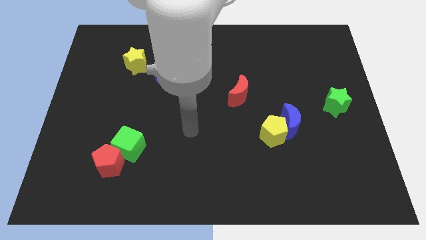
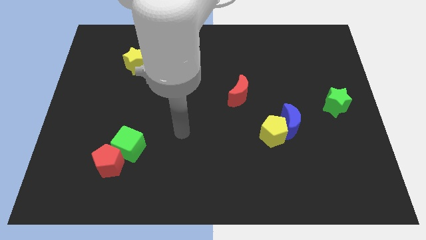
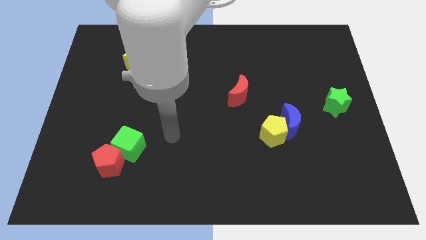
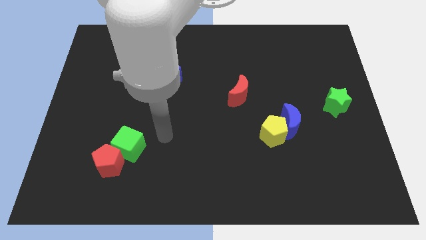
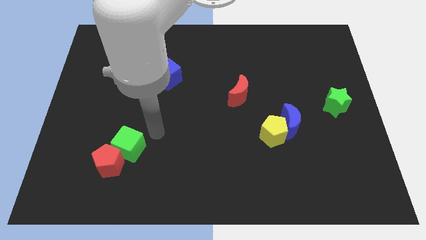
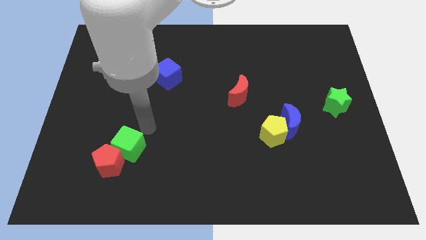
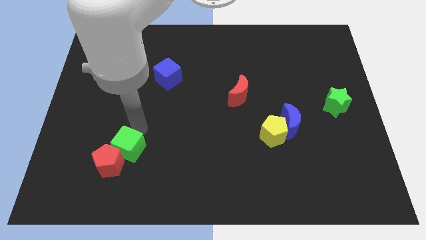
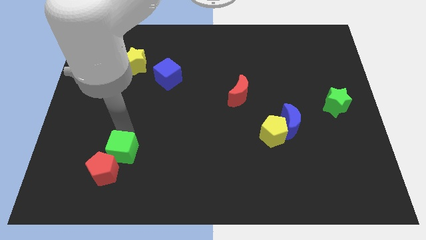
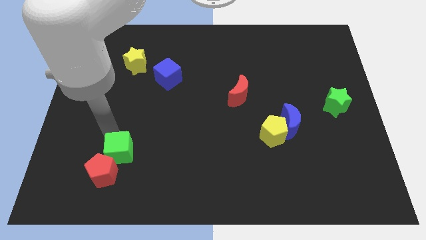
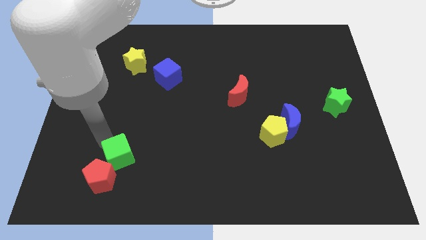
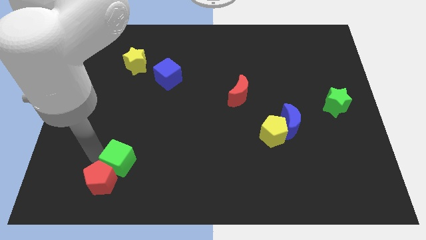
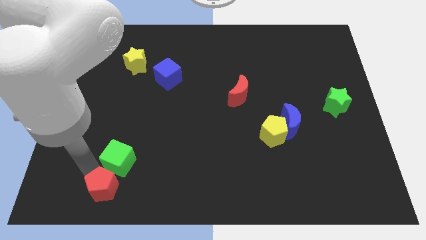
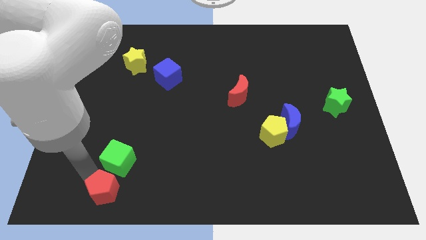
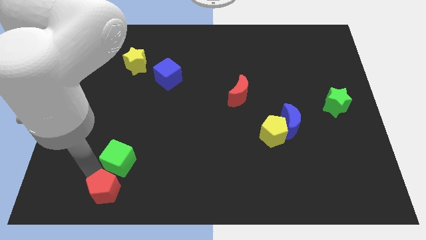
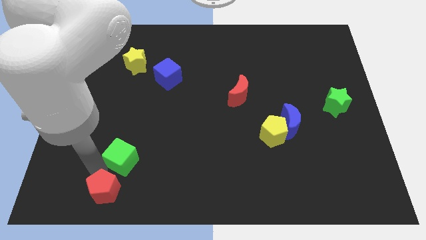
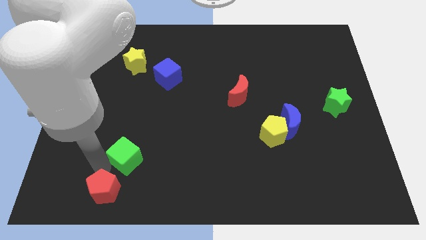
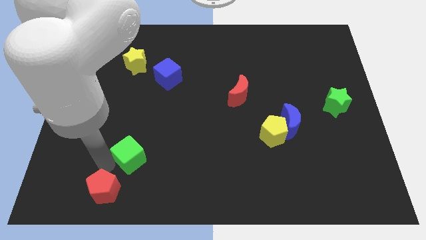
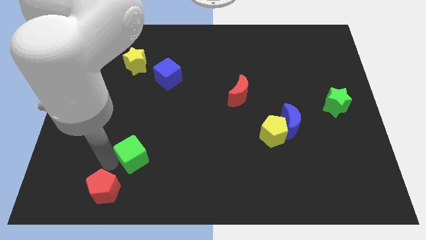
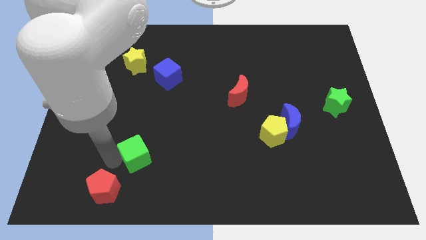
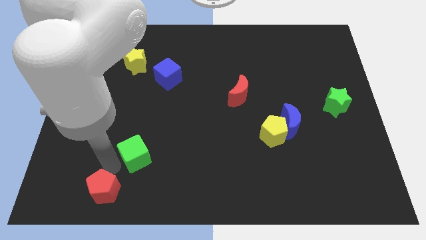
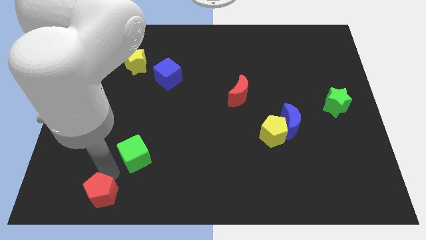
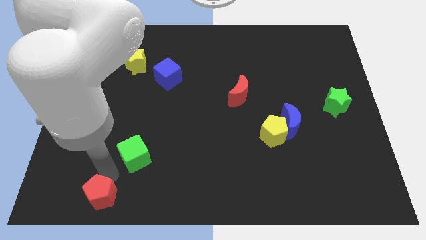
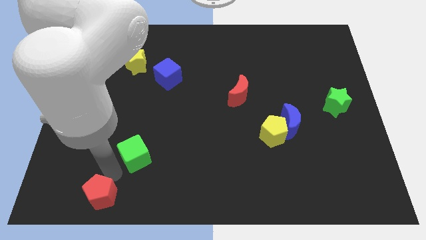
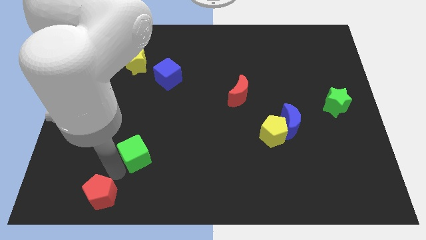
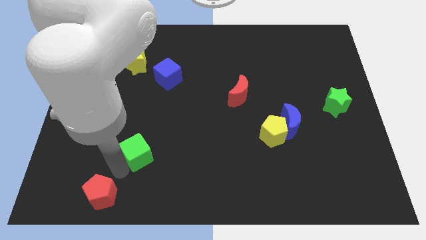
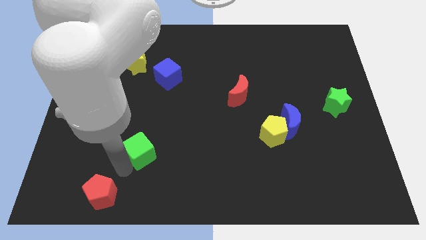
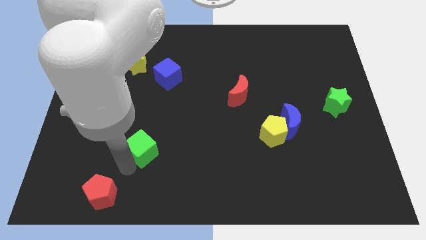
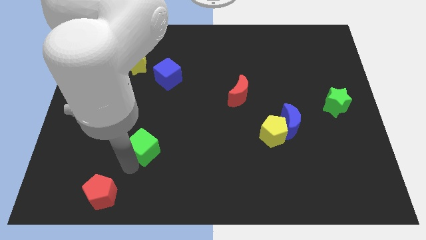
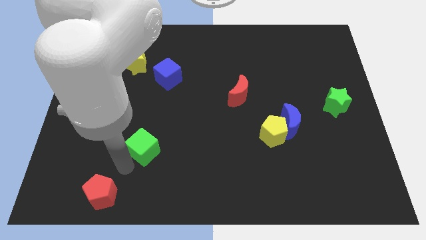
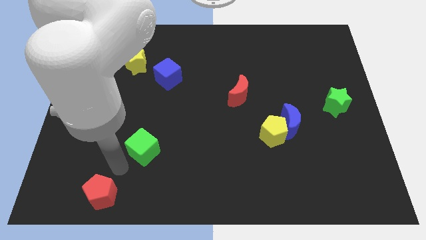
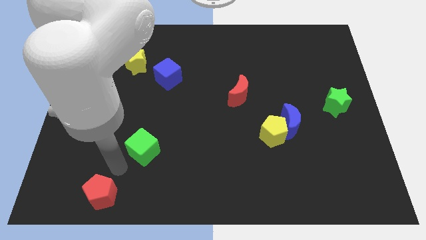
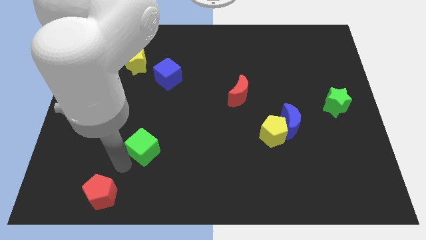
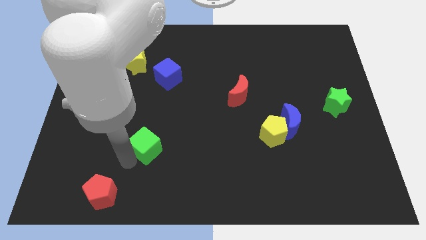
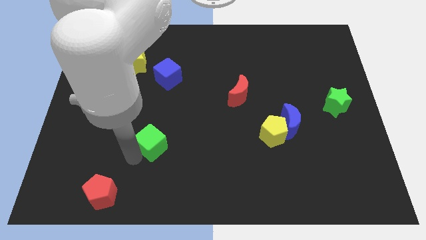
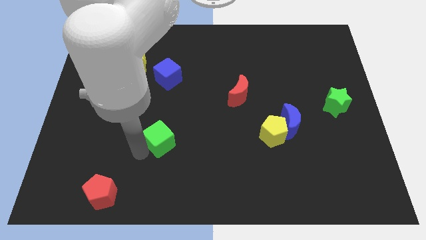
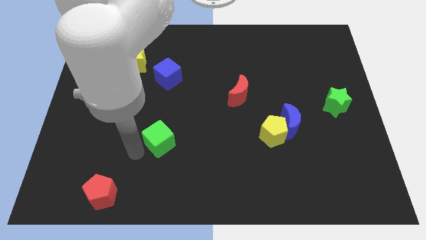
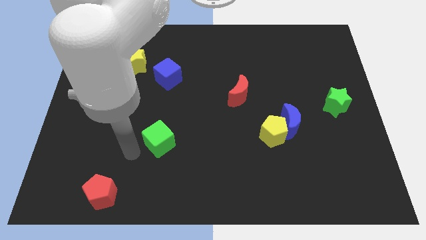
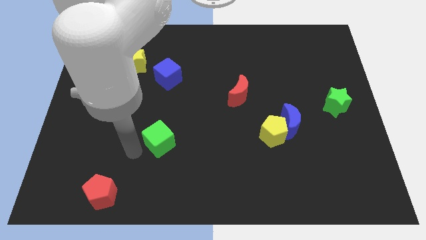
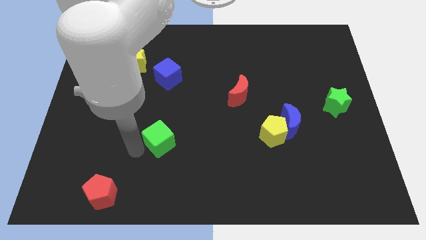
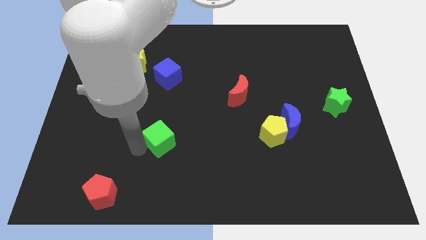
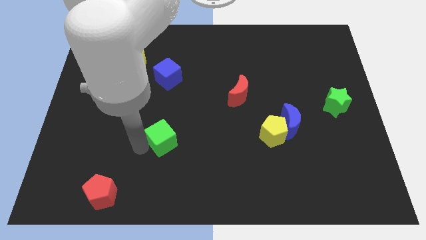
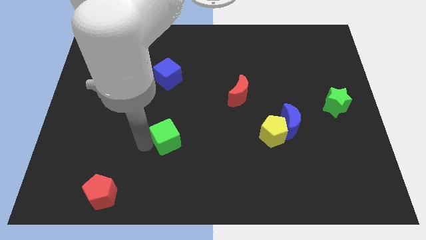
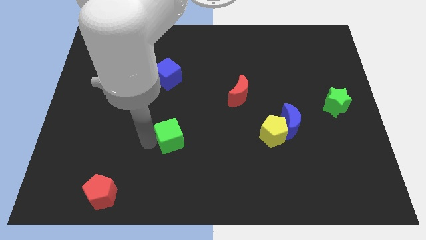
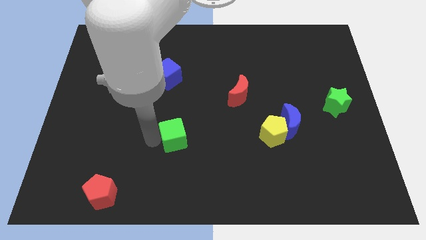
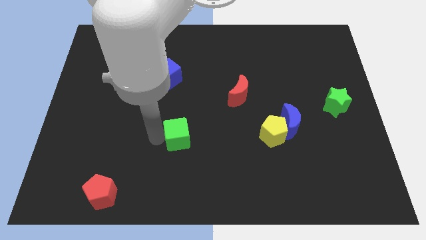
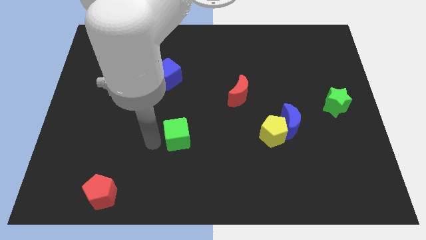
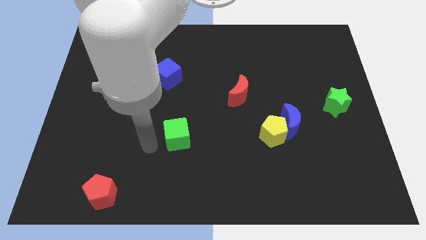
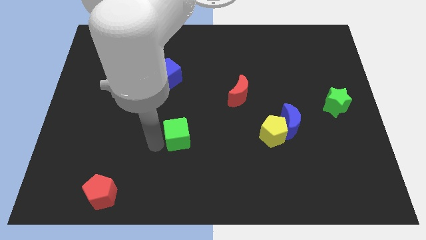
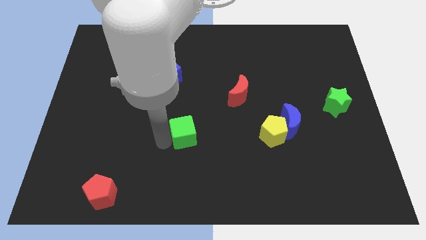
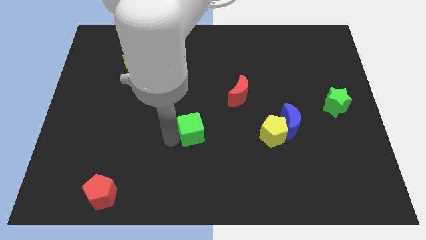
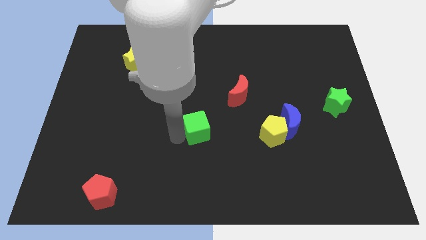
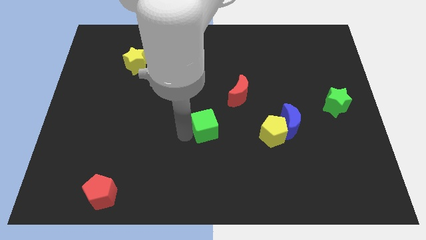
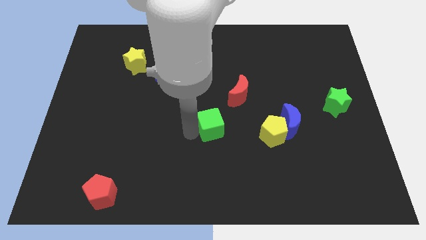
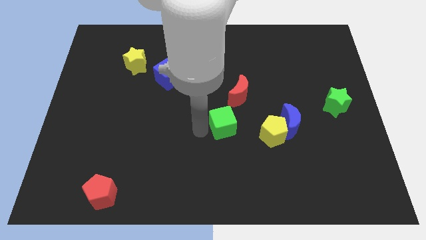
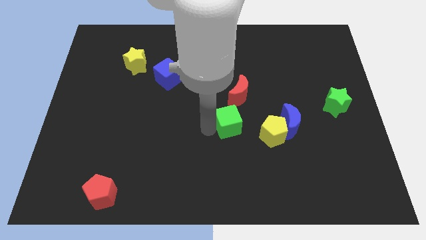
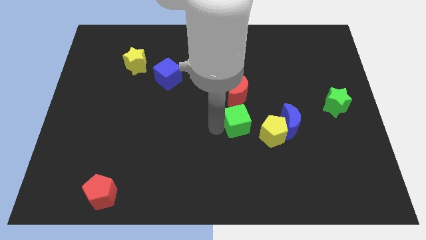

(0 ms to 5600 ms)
put the green cube to the top left of the yellow pentagon

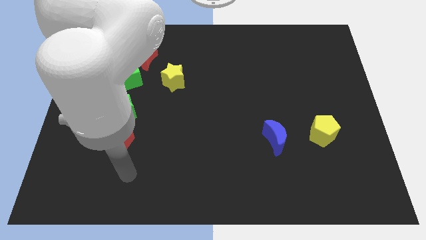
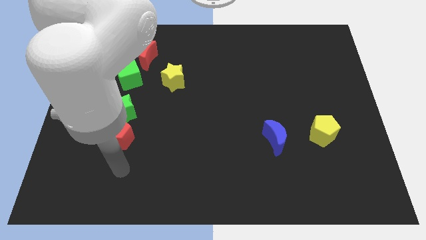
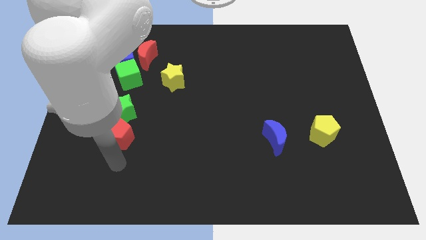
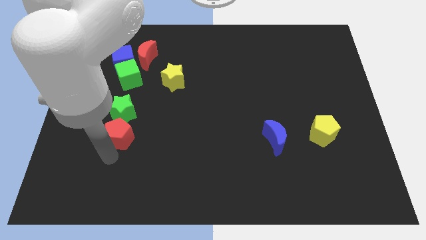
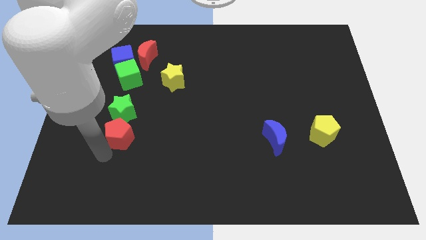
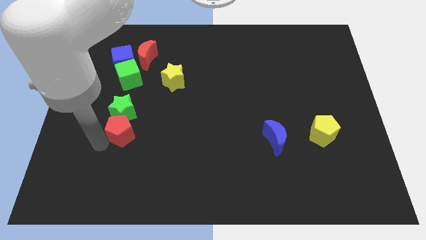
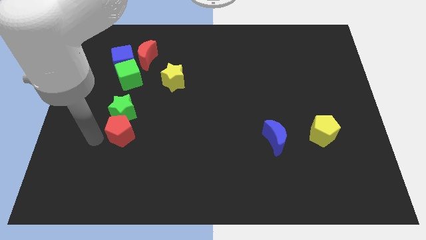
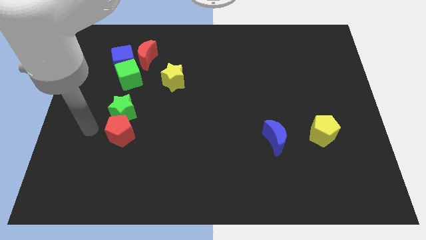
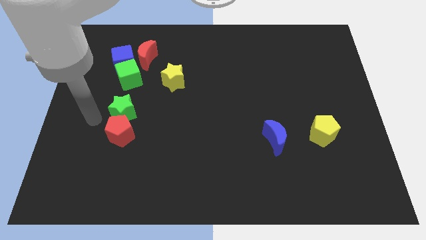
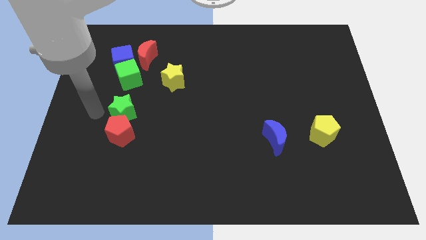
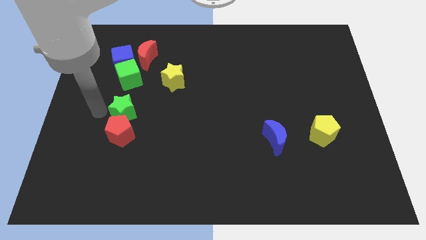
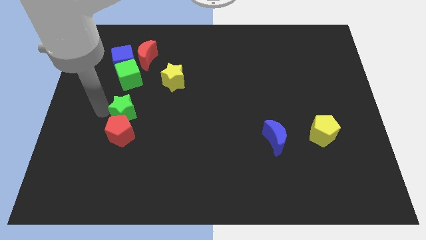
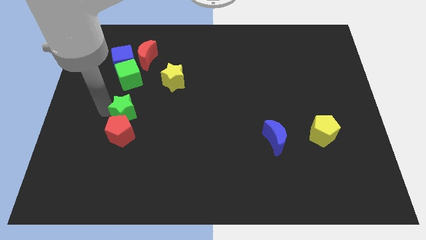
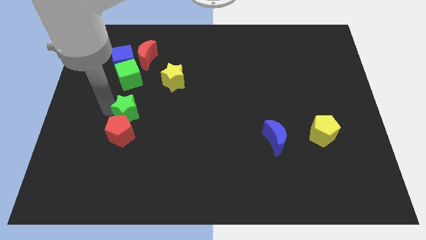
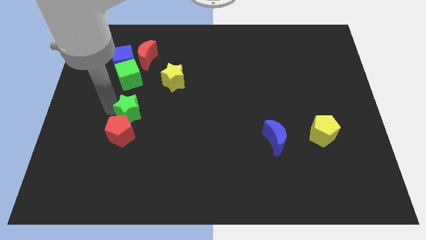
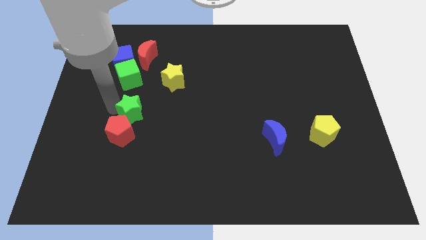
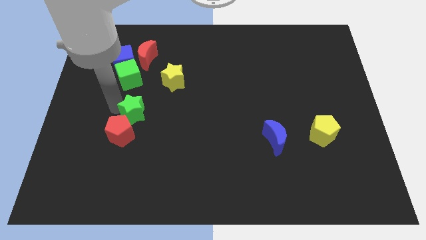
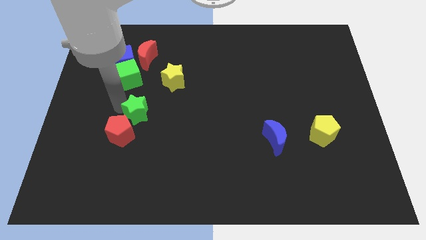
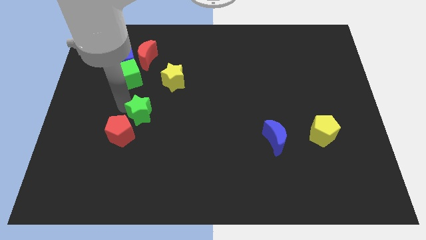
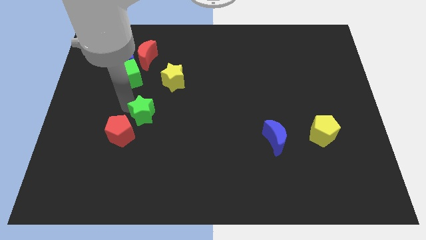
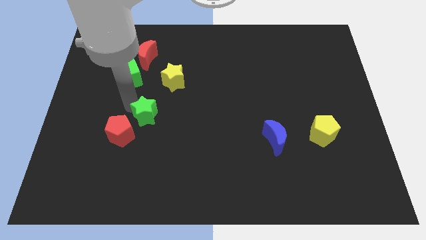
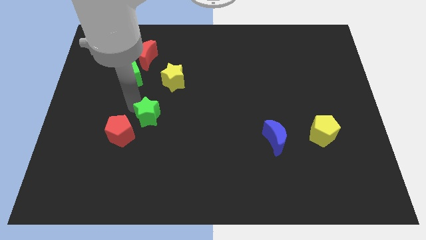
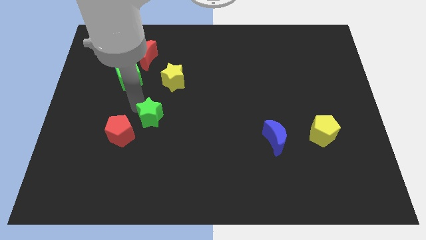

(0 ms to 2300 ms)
slide the green star to the bottom of the yellow star
